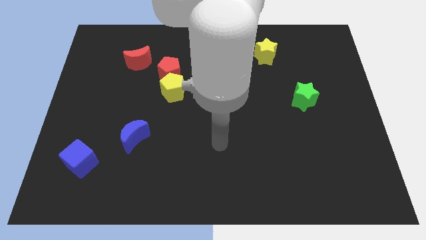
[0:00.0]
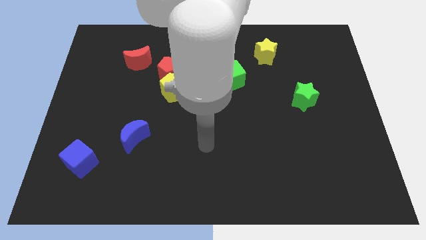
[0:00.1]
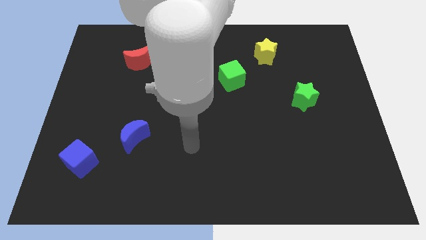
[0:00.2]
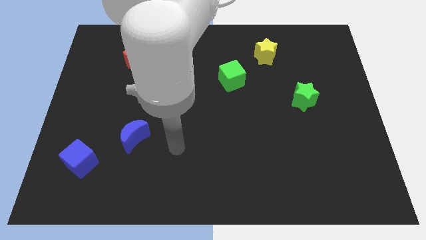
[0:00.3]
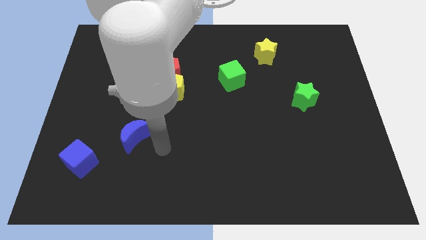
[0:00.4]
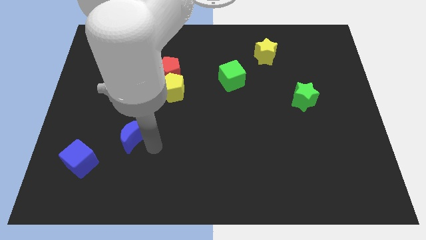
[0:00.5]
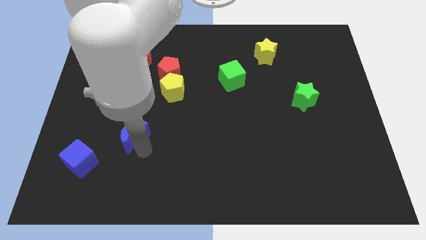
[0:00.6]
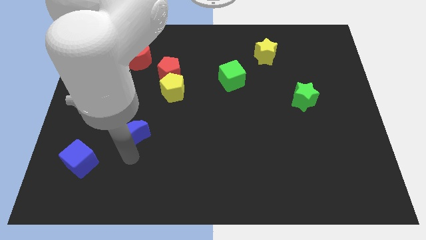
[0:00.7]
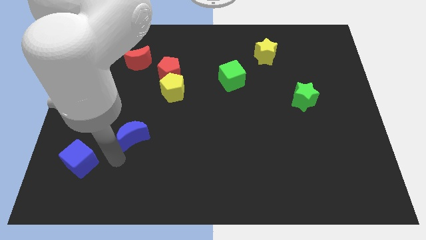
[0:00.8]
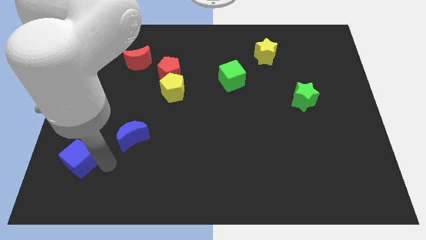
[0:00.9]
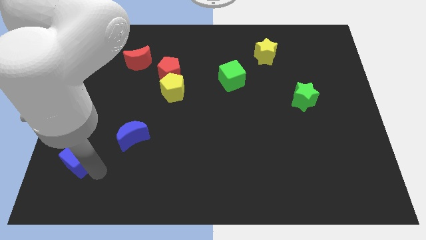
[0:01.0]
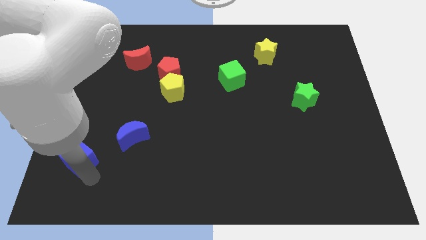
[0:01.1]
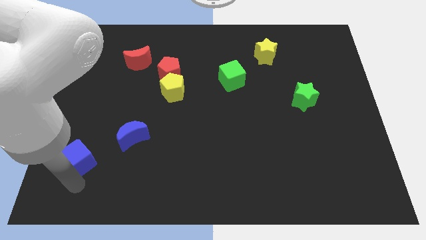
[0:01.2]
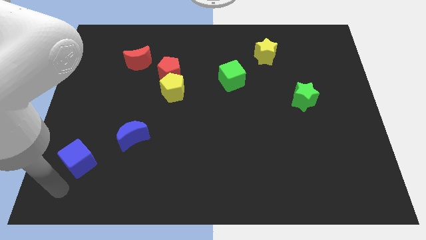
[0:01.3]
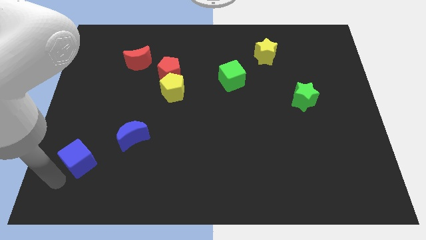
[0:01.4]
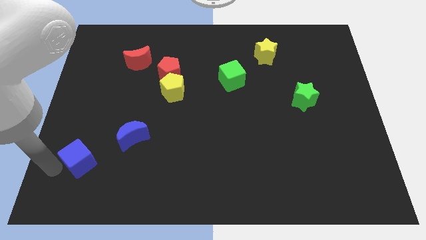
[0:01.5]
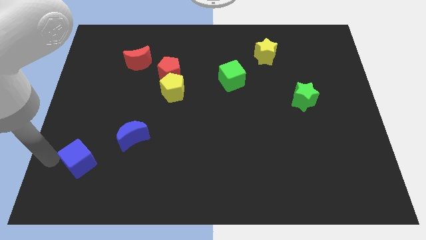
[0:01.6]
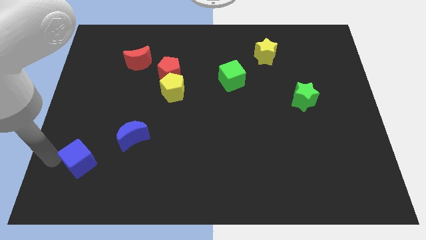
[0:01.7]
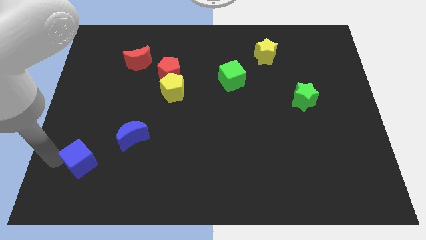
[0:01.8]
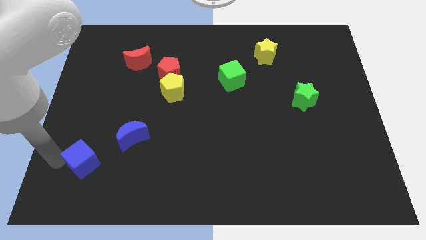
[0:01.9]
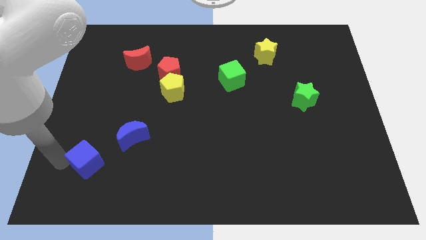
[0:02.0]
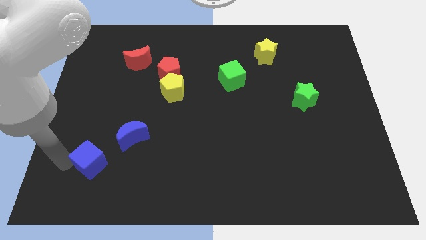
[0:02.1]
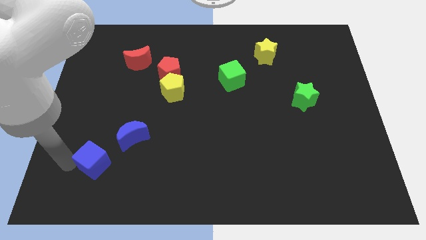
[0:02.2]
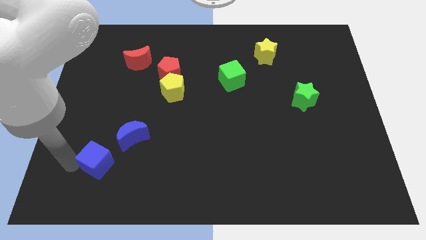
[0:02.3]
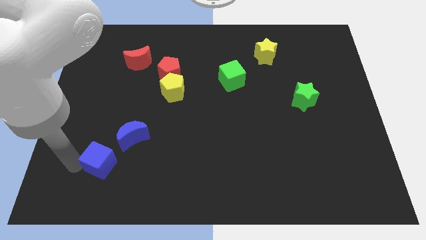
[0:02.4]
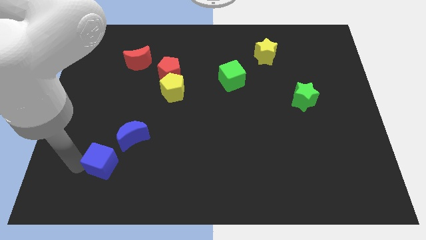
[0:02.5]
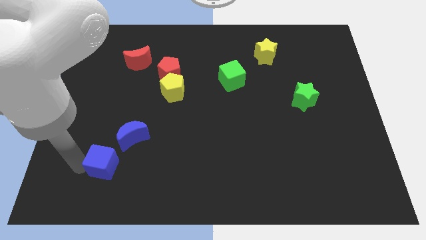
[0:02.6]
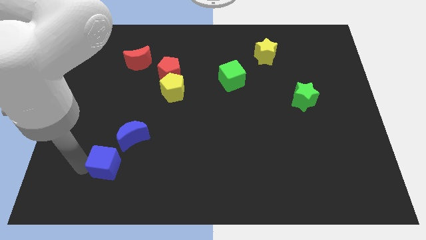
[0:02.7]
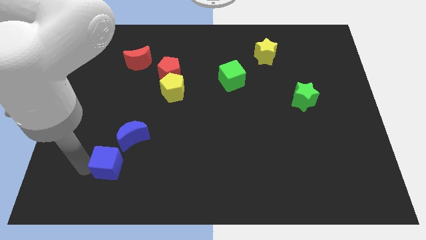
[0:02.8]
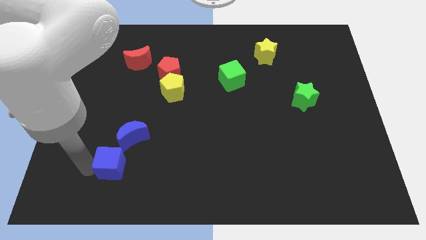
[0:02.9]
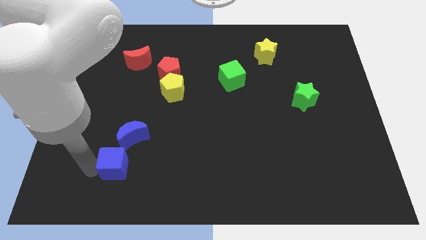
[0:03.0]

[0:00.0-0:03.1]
slide the blue cube to the right somewhat

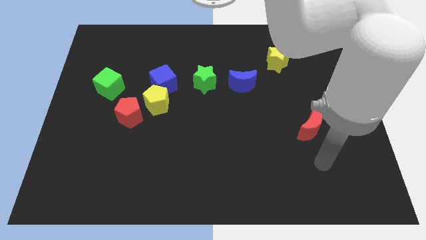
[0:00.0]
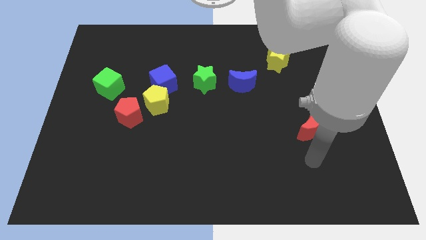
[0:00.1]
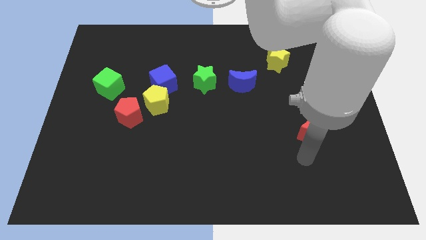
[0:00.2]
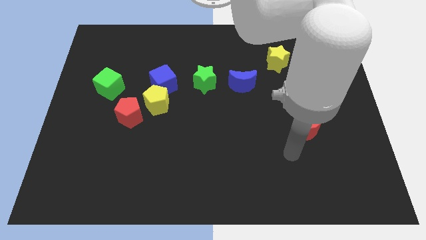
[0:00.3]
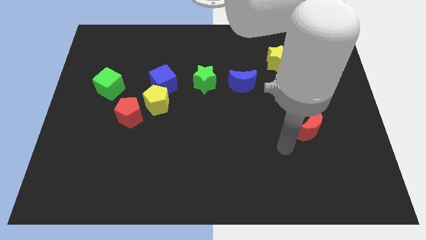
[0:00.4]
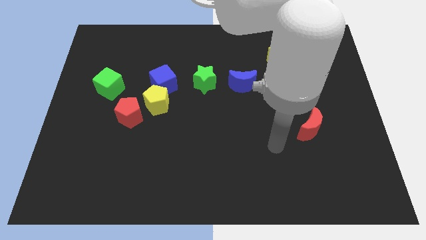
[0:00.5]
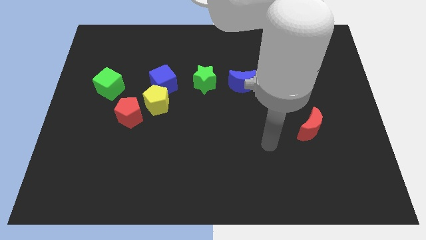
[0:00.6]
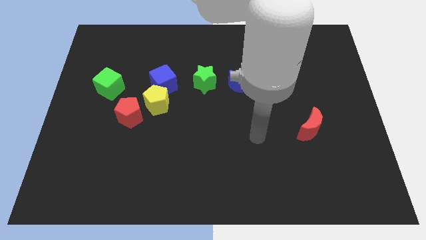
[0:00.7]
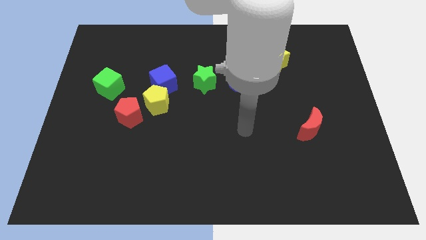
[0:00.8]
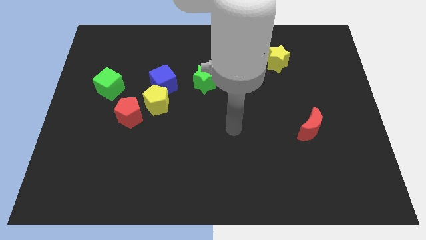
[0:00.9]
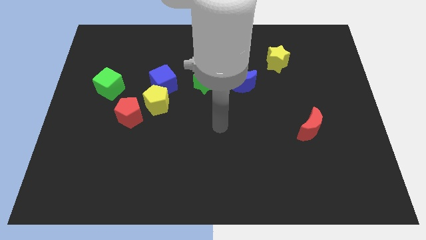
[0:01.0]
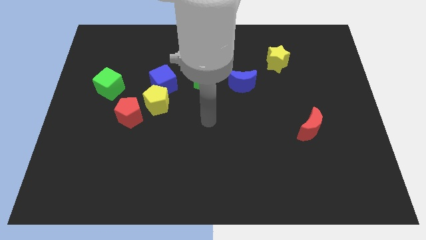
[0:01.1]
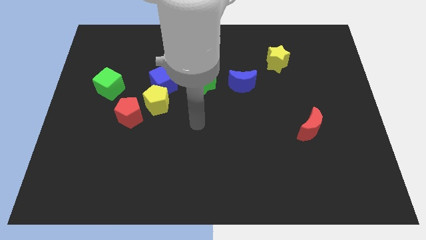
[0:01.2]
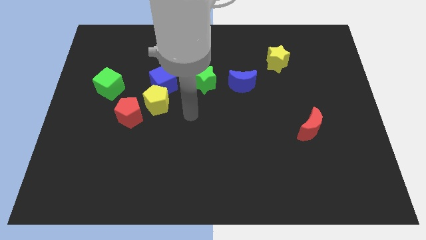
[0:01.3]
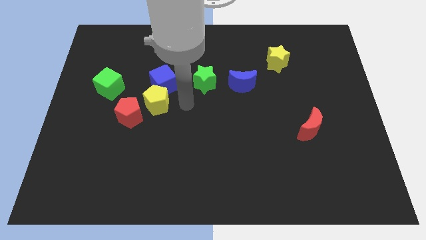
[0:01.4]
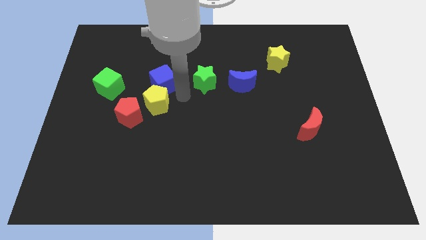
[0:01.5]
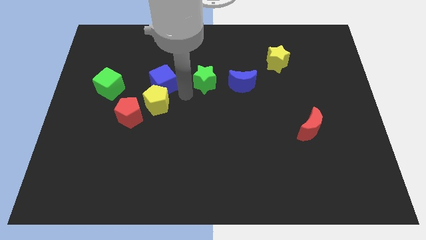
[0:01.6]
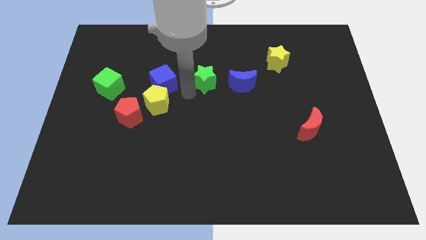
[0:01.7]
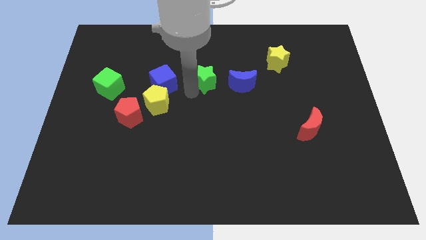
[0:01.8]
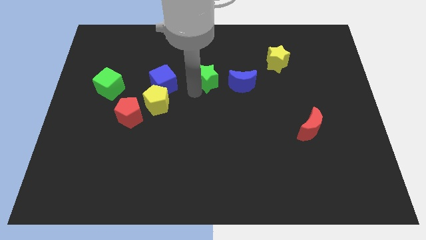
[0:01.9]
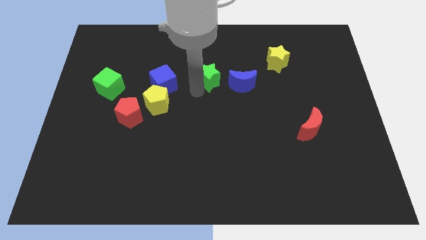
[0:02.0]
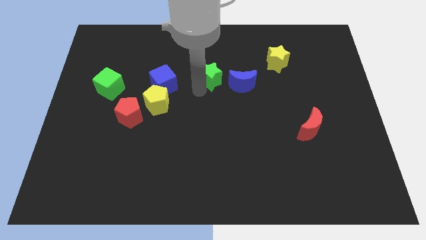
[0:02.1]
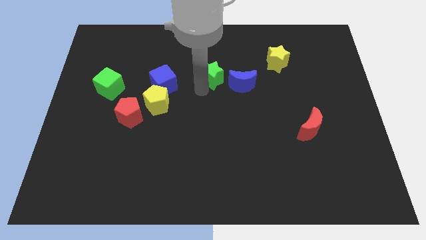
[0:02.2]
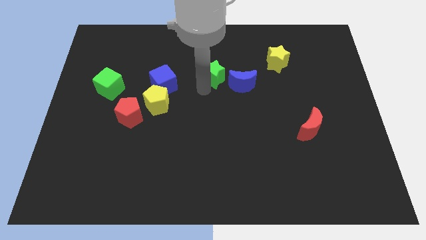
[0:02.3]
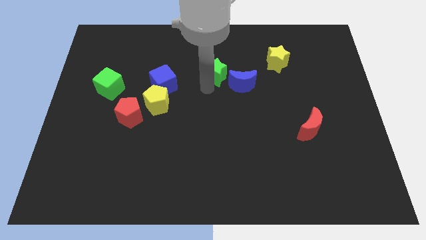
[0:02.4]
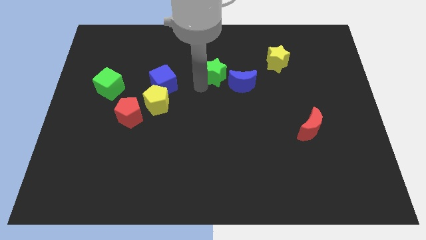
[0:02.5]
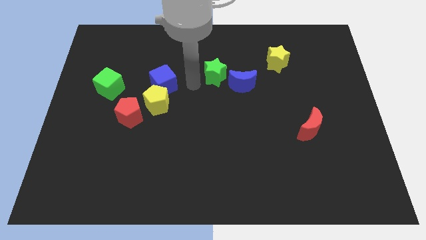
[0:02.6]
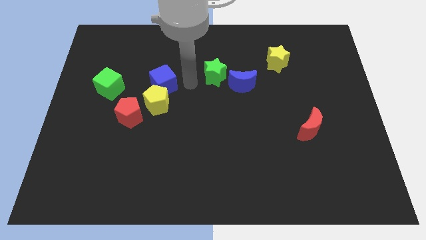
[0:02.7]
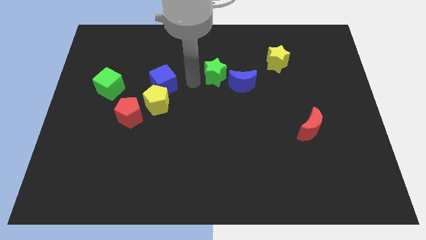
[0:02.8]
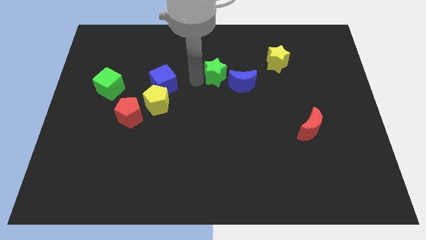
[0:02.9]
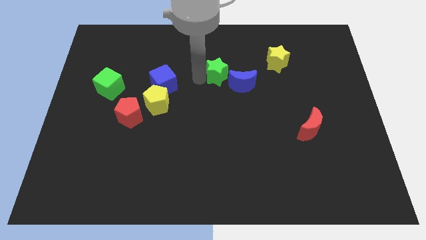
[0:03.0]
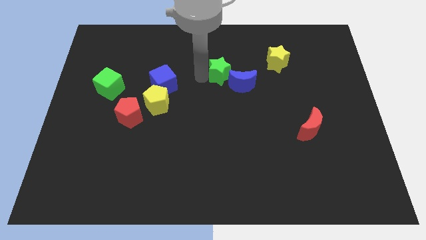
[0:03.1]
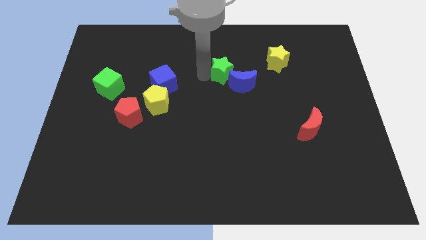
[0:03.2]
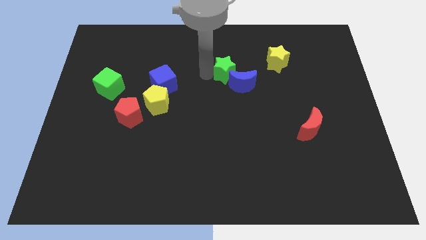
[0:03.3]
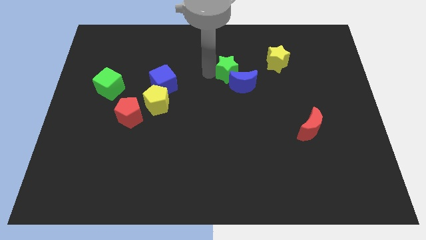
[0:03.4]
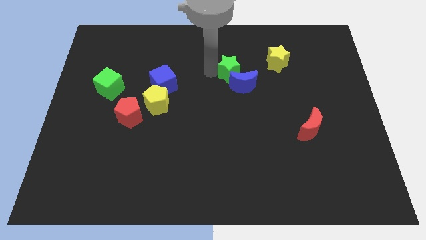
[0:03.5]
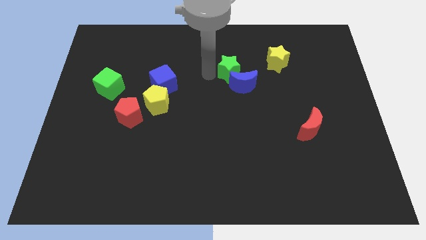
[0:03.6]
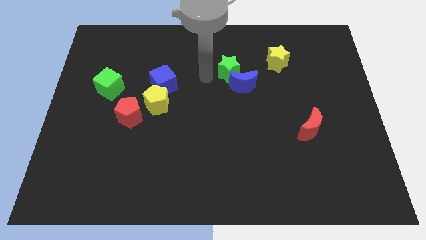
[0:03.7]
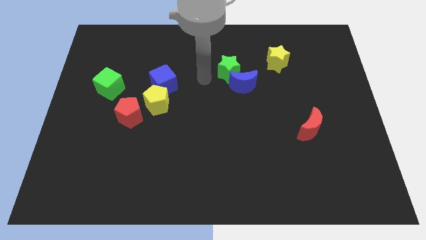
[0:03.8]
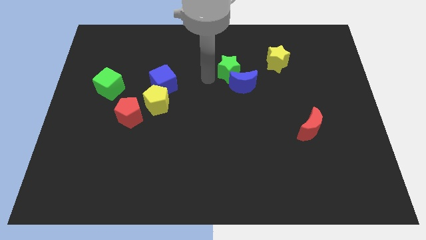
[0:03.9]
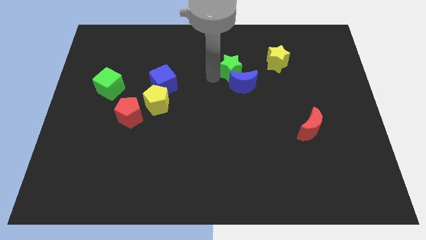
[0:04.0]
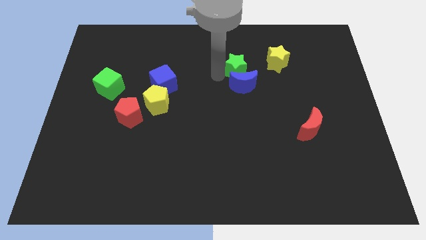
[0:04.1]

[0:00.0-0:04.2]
slide the green star right somewhat

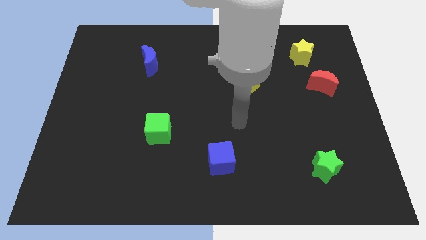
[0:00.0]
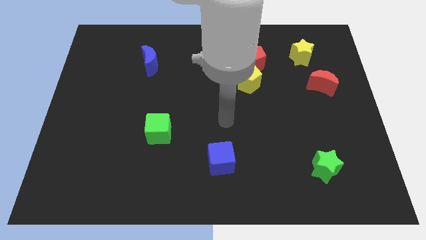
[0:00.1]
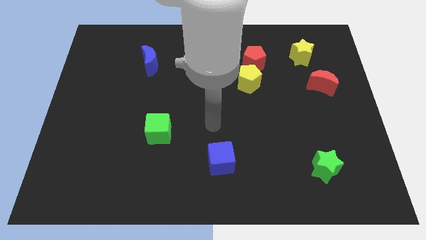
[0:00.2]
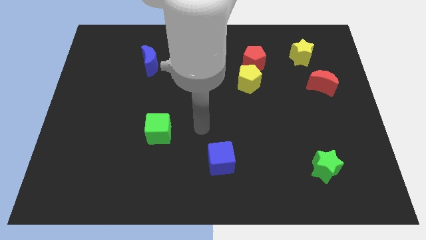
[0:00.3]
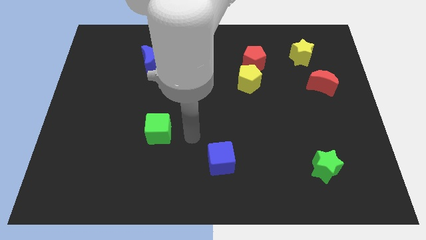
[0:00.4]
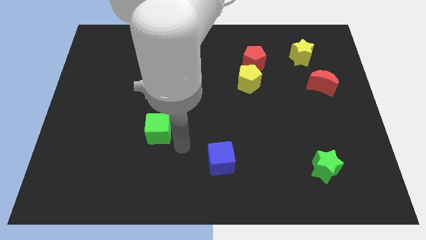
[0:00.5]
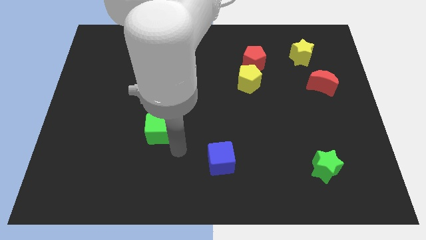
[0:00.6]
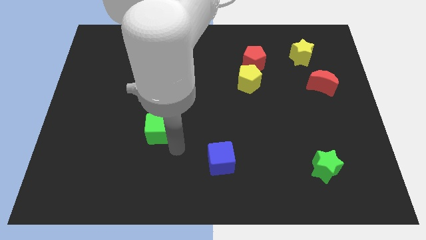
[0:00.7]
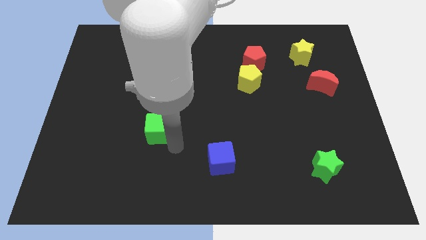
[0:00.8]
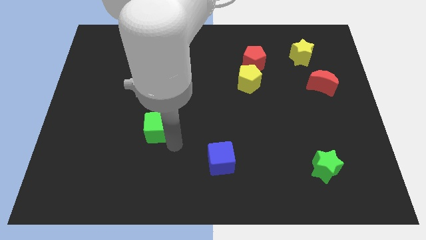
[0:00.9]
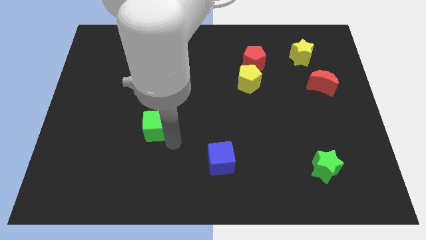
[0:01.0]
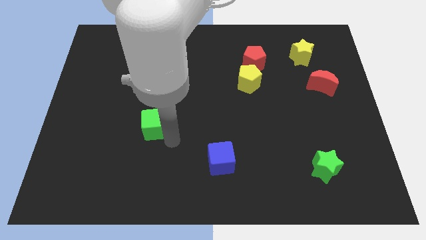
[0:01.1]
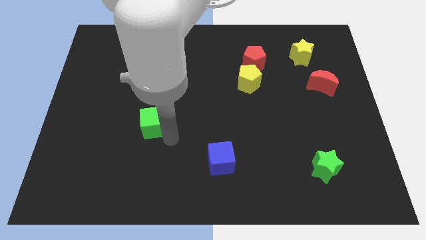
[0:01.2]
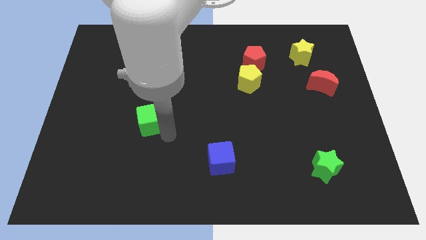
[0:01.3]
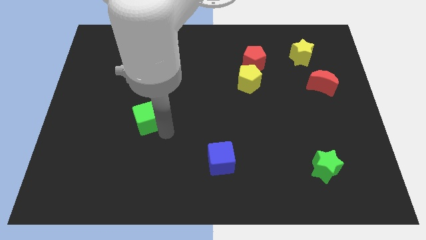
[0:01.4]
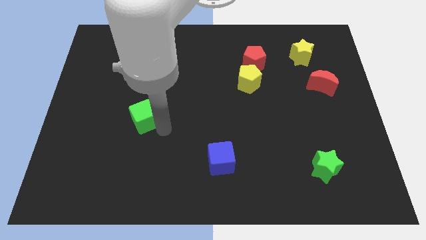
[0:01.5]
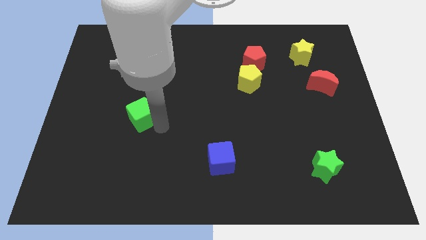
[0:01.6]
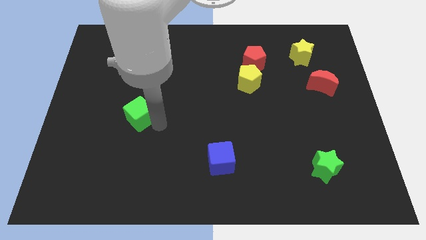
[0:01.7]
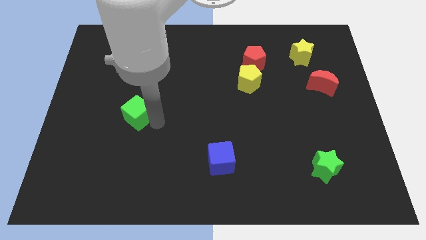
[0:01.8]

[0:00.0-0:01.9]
slightly push the green cube up and then to the left
